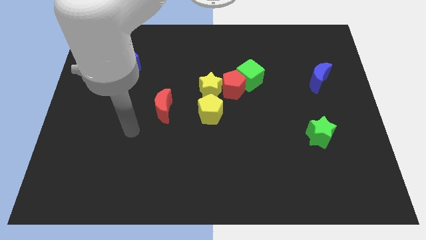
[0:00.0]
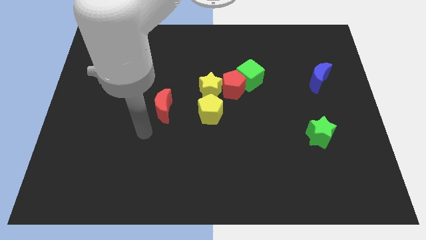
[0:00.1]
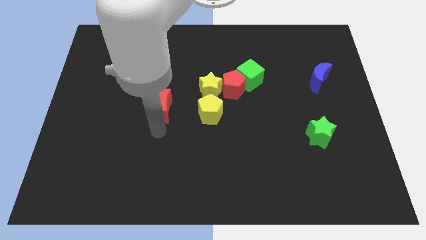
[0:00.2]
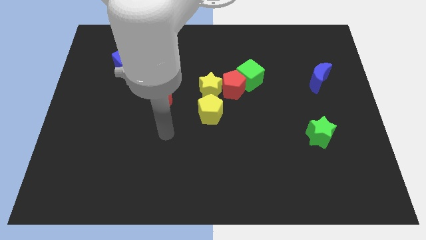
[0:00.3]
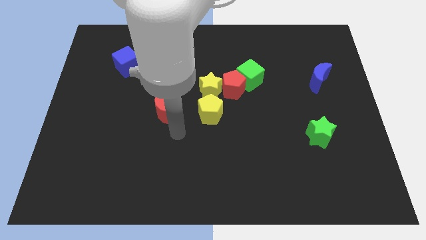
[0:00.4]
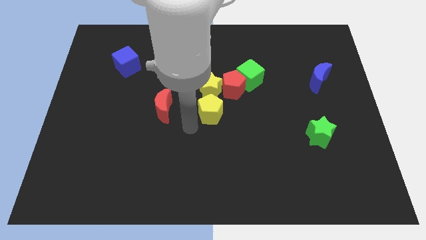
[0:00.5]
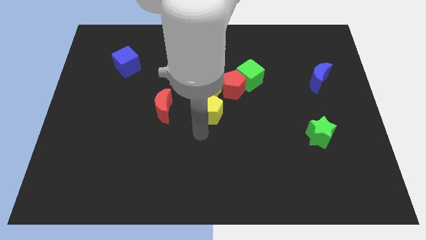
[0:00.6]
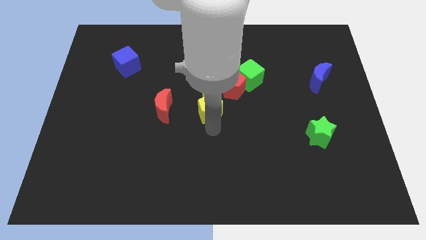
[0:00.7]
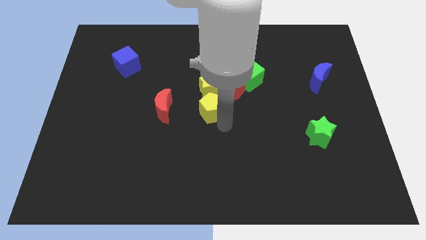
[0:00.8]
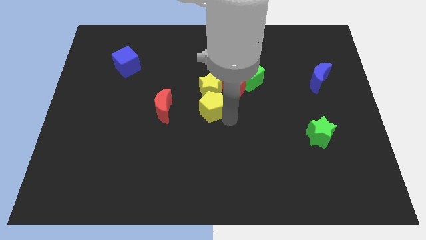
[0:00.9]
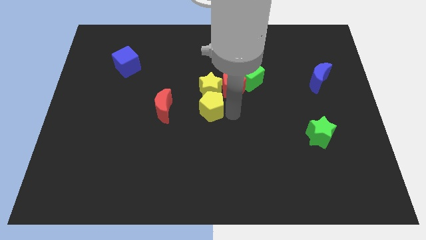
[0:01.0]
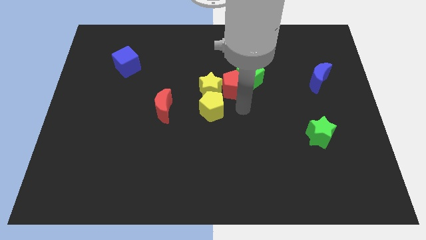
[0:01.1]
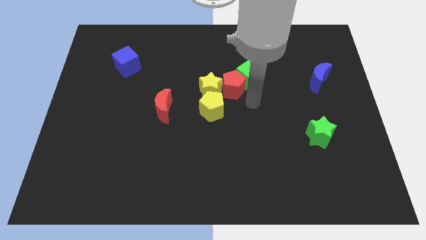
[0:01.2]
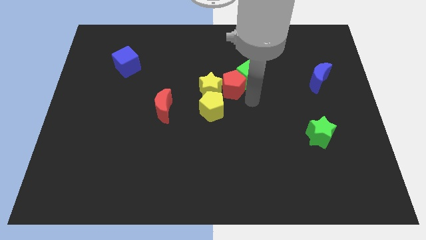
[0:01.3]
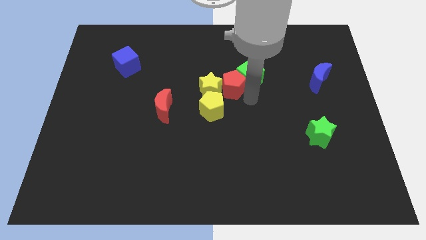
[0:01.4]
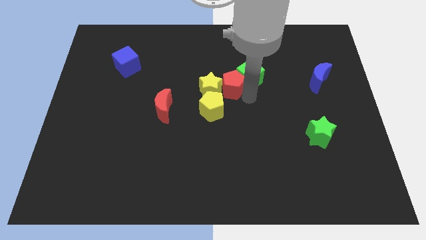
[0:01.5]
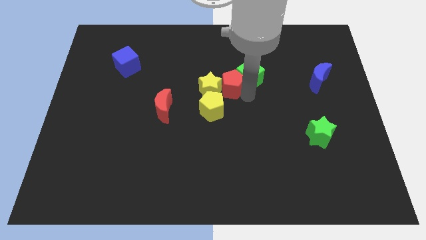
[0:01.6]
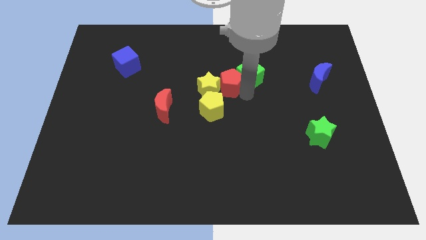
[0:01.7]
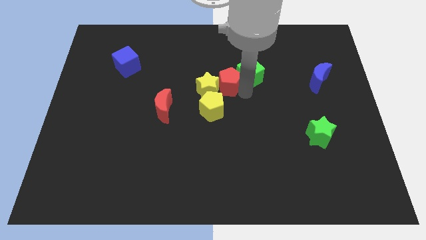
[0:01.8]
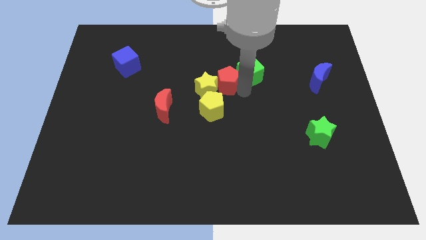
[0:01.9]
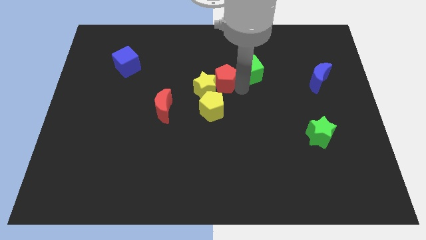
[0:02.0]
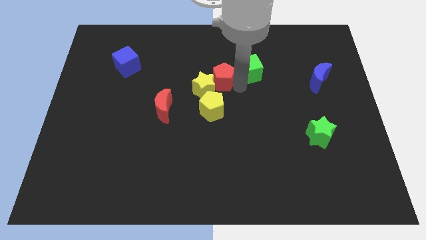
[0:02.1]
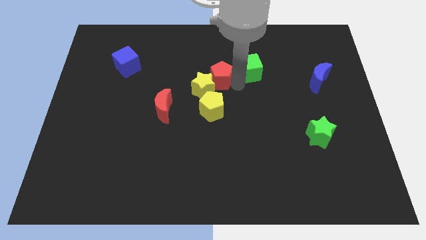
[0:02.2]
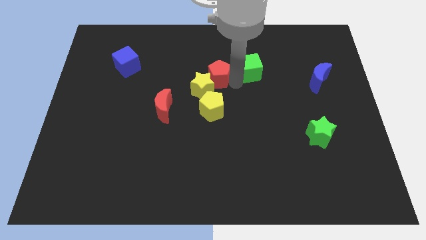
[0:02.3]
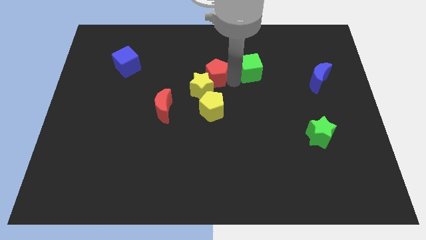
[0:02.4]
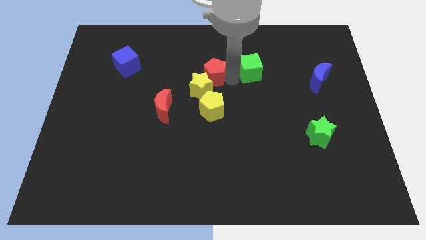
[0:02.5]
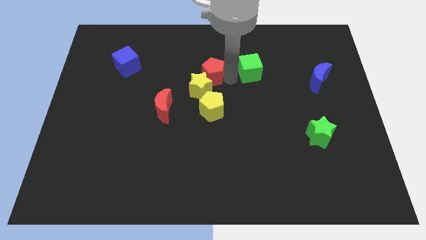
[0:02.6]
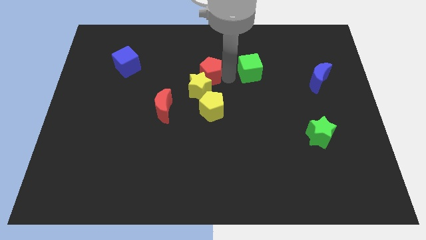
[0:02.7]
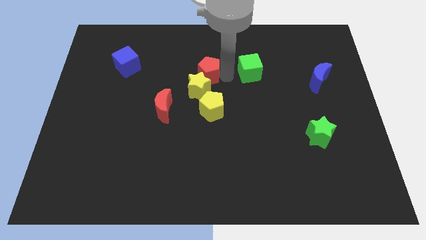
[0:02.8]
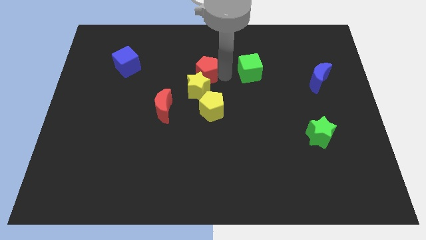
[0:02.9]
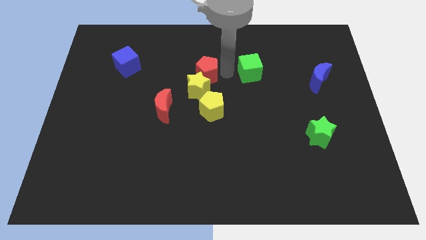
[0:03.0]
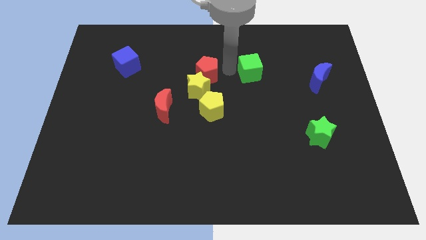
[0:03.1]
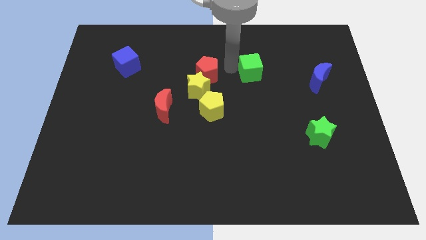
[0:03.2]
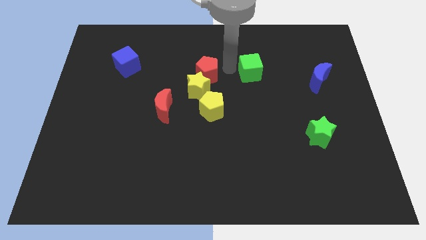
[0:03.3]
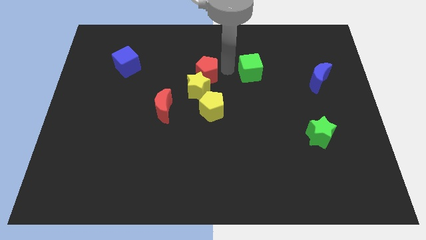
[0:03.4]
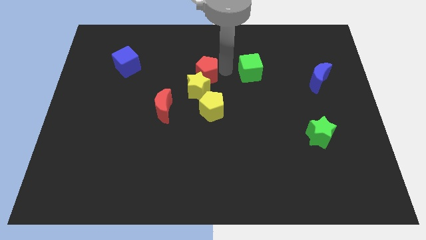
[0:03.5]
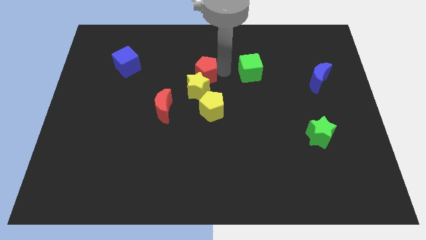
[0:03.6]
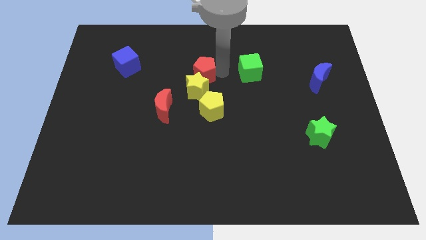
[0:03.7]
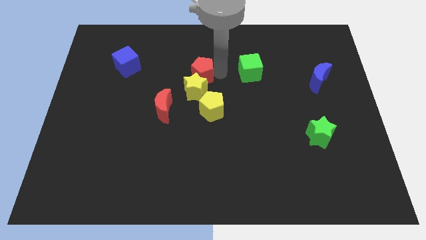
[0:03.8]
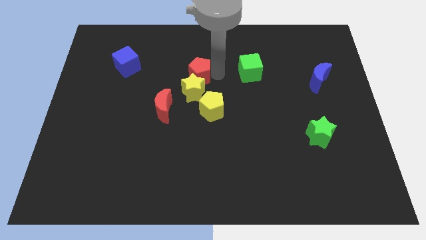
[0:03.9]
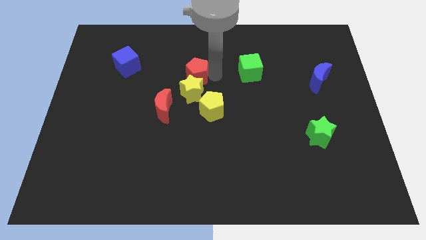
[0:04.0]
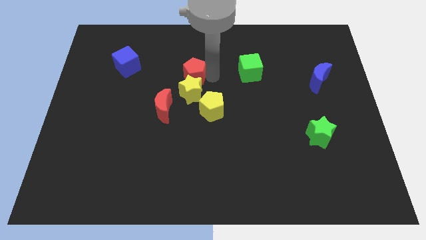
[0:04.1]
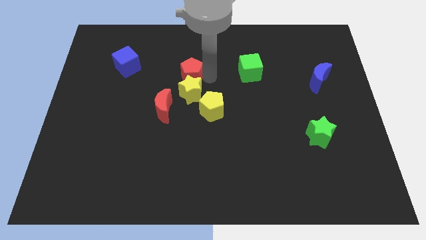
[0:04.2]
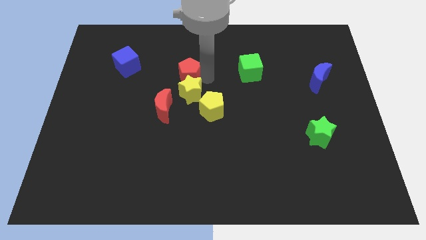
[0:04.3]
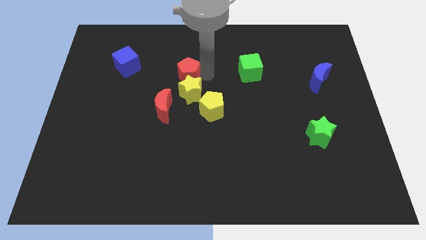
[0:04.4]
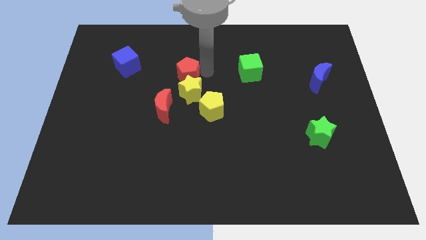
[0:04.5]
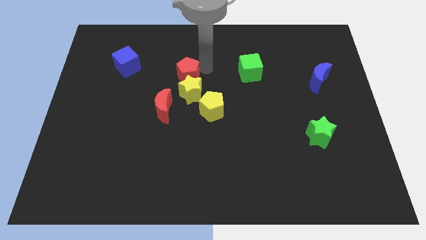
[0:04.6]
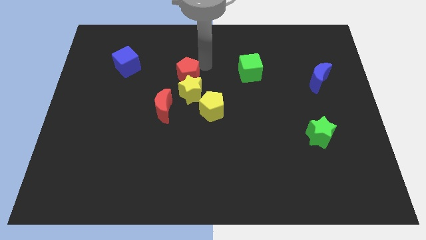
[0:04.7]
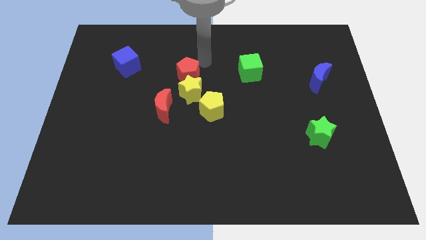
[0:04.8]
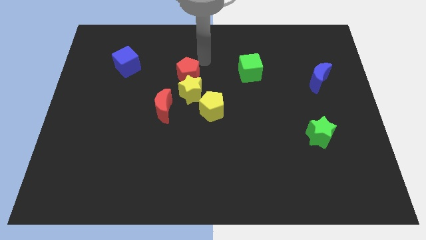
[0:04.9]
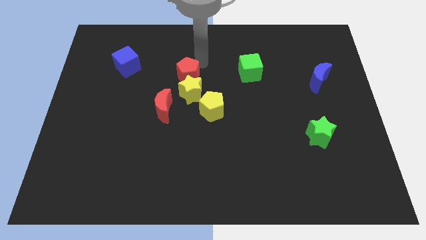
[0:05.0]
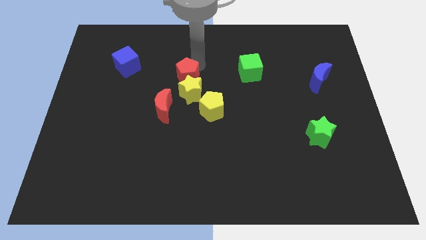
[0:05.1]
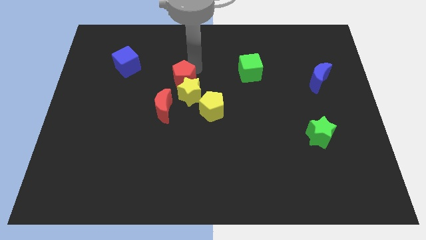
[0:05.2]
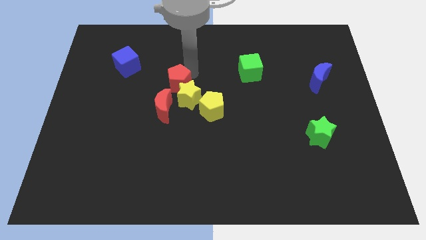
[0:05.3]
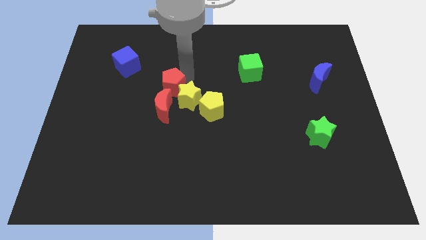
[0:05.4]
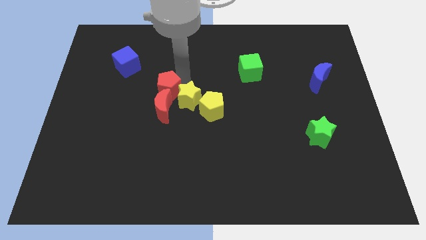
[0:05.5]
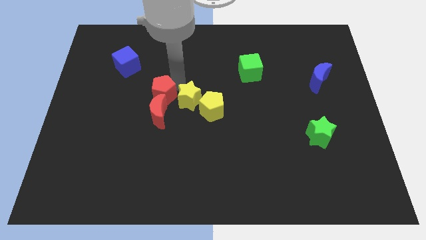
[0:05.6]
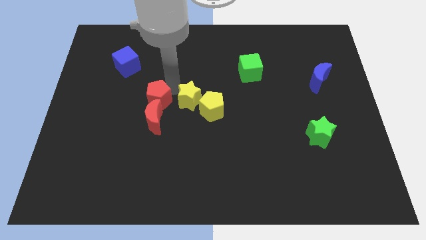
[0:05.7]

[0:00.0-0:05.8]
move the red pentagon diagonally up and to the left of the red moon
